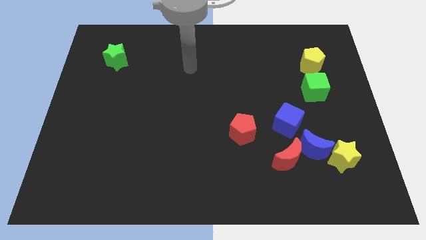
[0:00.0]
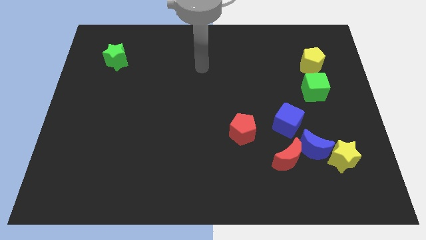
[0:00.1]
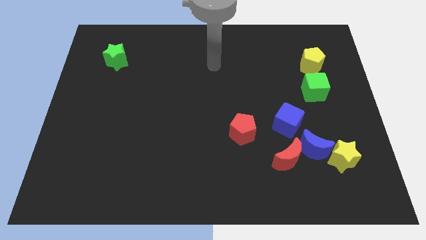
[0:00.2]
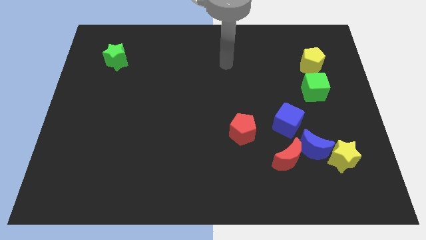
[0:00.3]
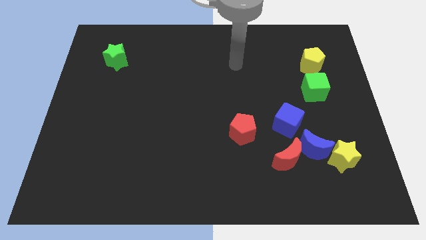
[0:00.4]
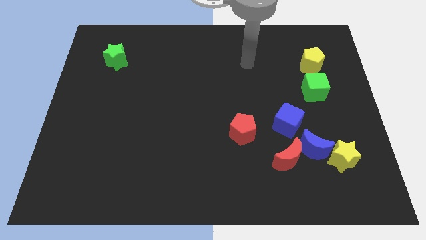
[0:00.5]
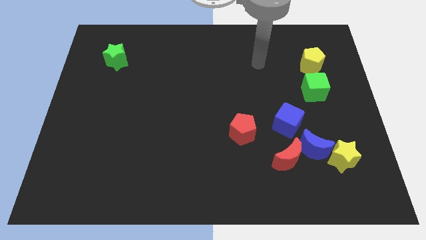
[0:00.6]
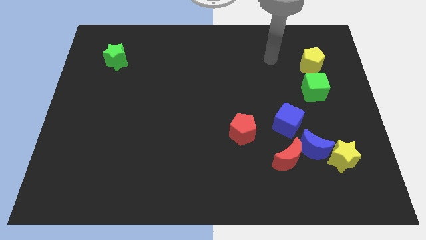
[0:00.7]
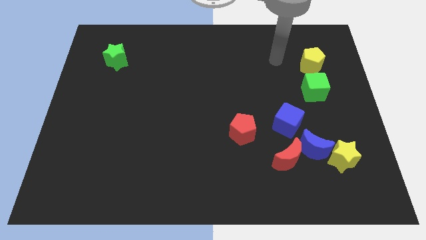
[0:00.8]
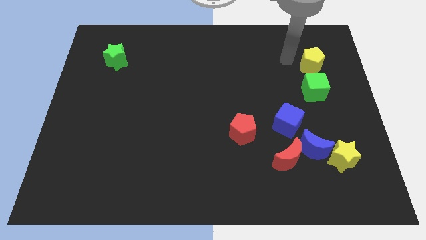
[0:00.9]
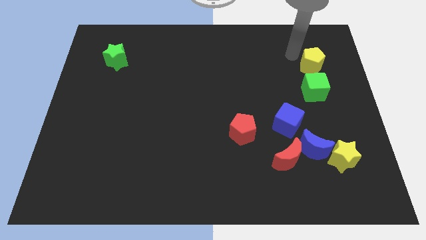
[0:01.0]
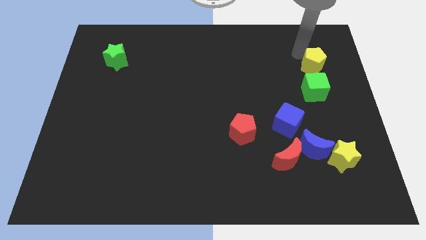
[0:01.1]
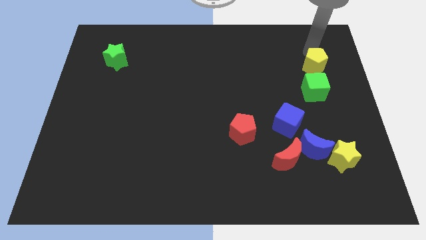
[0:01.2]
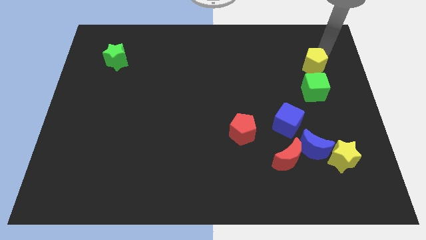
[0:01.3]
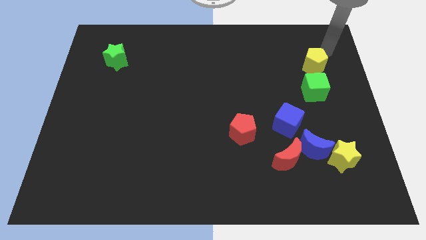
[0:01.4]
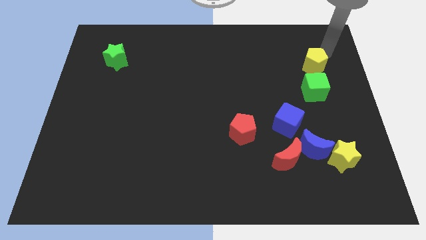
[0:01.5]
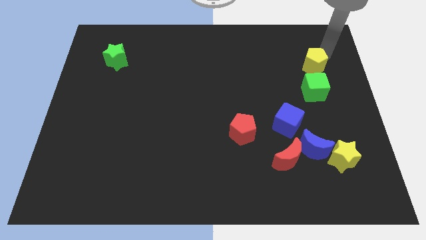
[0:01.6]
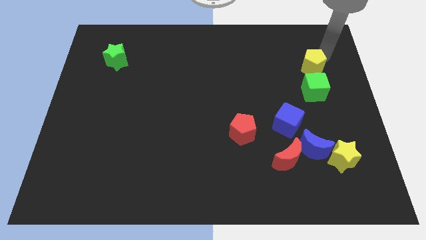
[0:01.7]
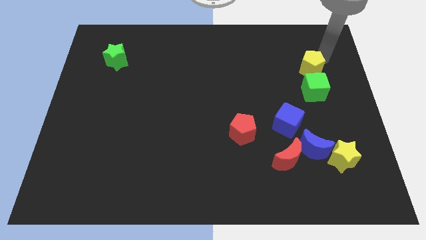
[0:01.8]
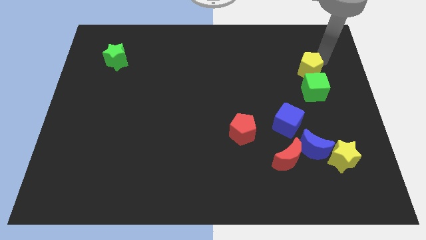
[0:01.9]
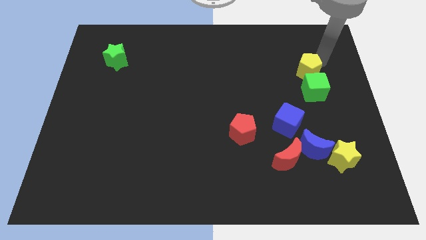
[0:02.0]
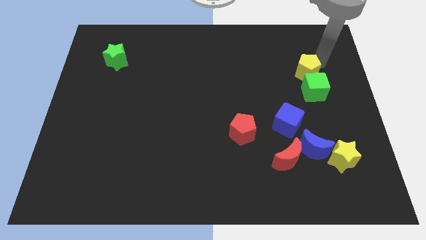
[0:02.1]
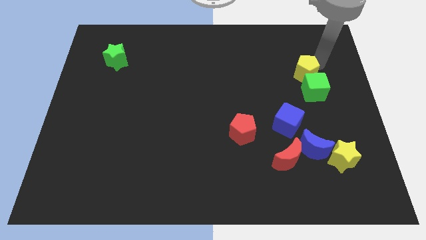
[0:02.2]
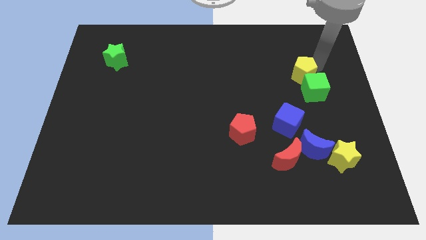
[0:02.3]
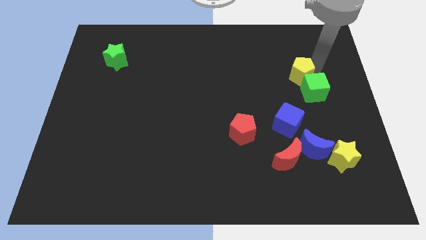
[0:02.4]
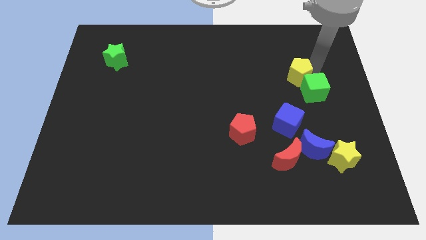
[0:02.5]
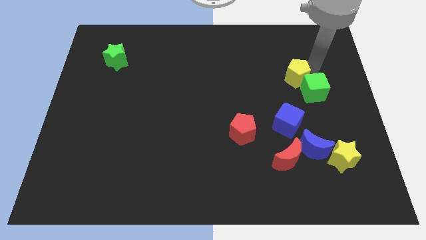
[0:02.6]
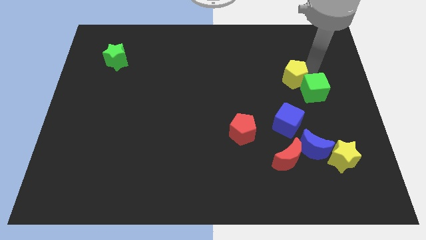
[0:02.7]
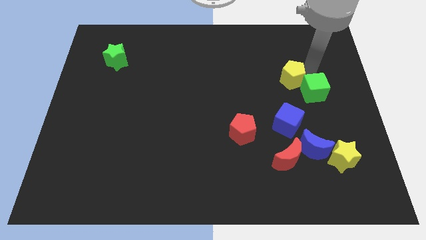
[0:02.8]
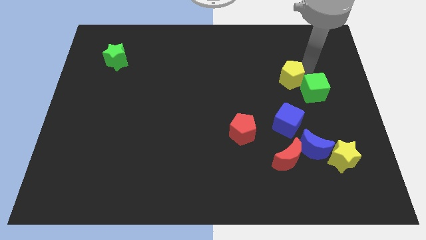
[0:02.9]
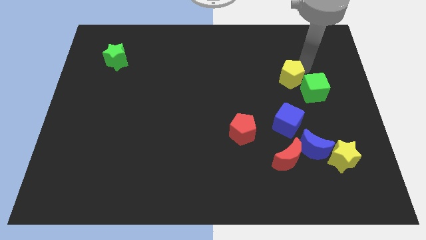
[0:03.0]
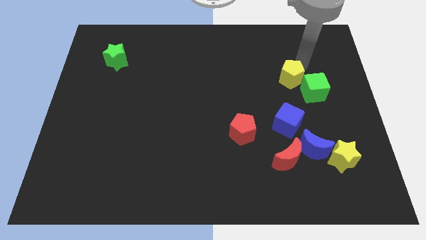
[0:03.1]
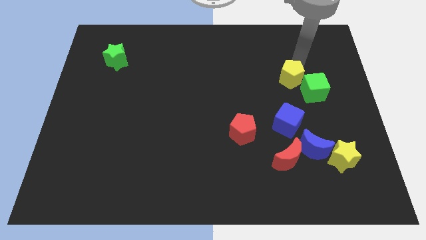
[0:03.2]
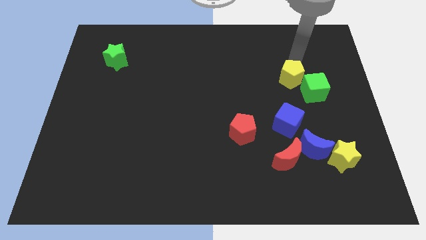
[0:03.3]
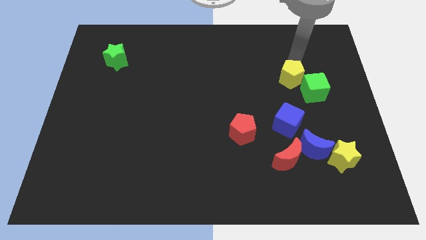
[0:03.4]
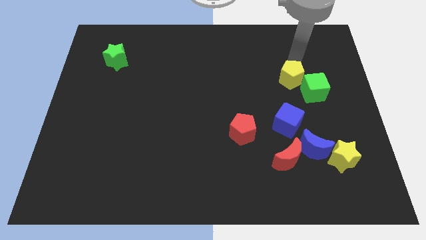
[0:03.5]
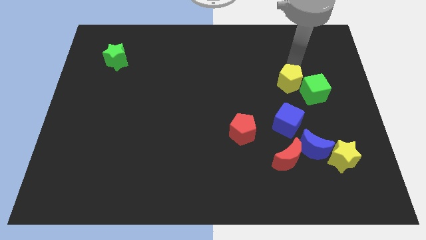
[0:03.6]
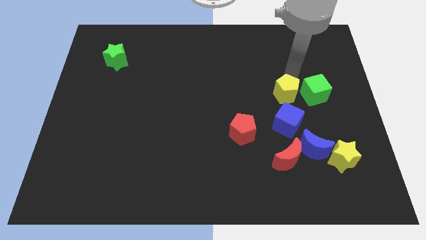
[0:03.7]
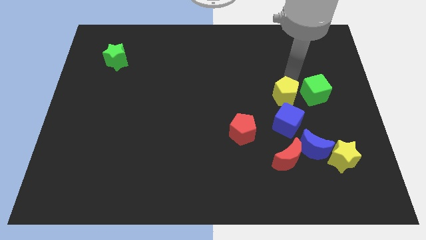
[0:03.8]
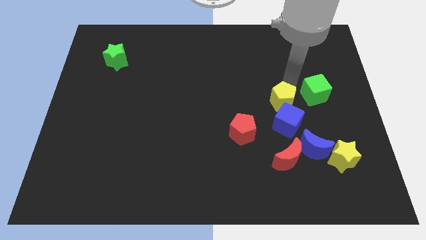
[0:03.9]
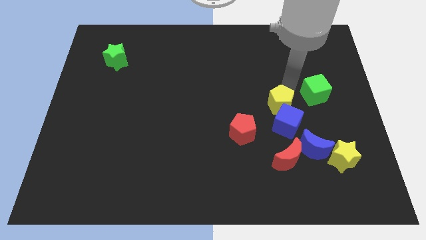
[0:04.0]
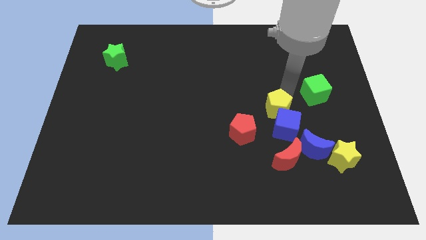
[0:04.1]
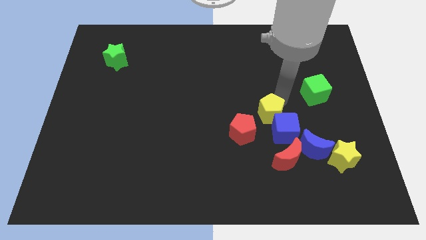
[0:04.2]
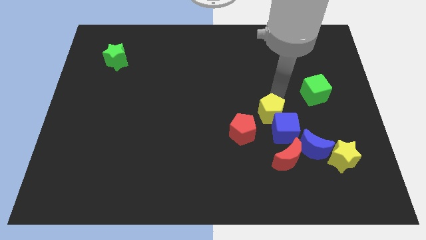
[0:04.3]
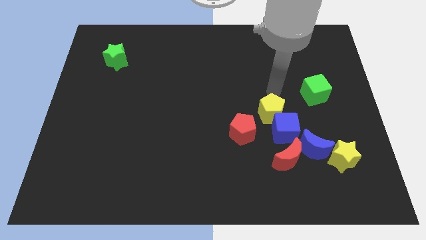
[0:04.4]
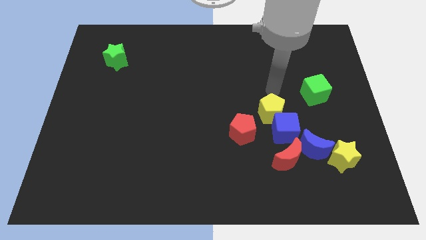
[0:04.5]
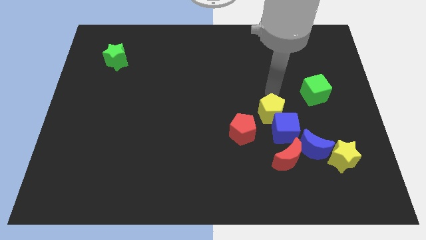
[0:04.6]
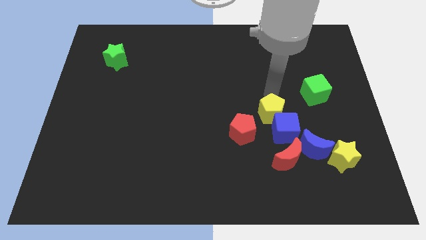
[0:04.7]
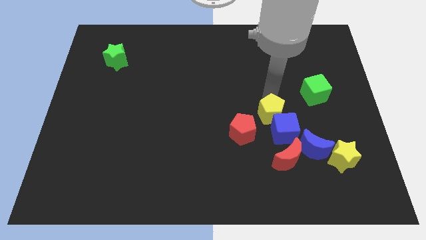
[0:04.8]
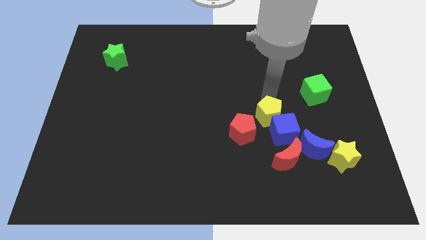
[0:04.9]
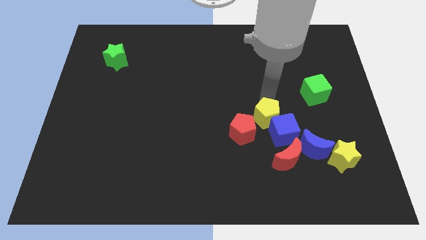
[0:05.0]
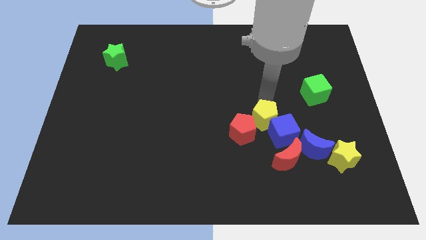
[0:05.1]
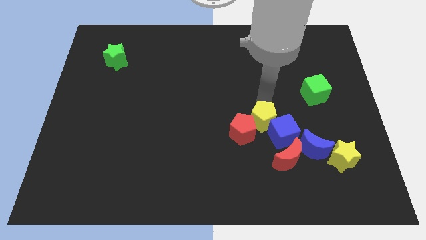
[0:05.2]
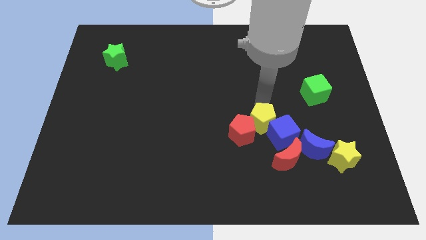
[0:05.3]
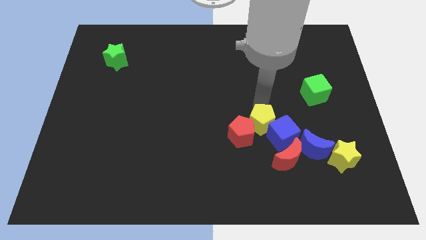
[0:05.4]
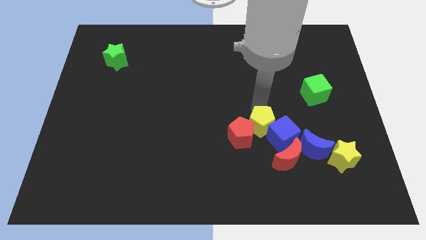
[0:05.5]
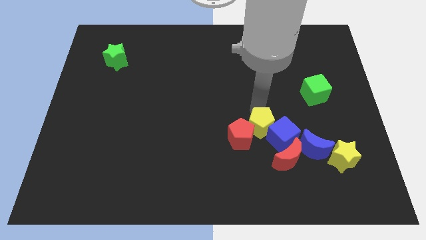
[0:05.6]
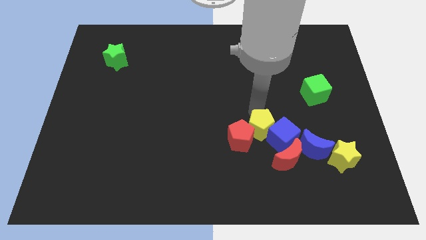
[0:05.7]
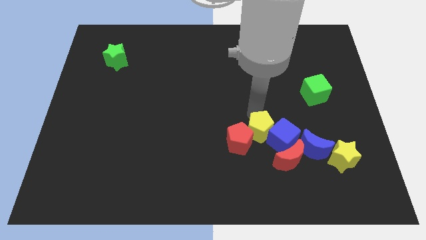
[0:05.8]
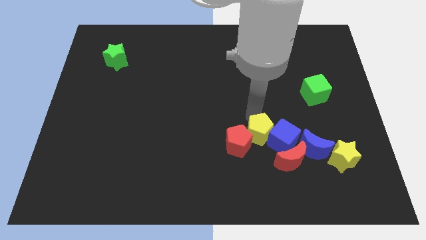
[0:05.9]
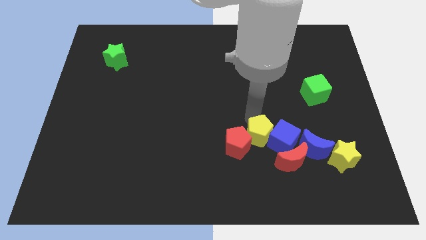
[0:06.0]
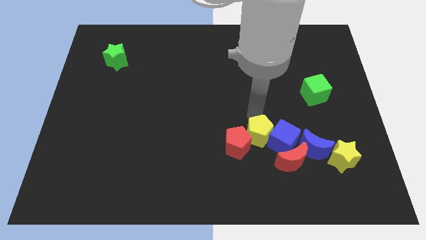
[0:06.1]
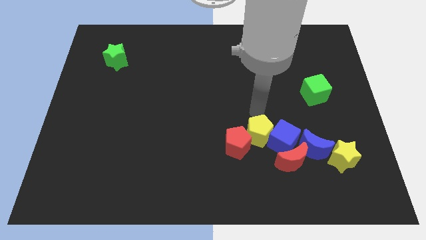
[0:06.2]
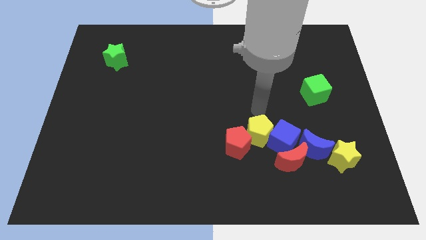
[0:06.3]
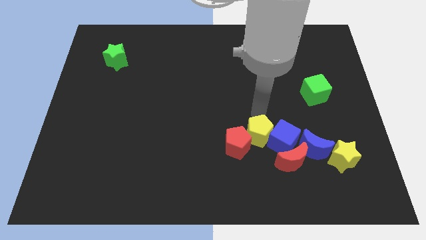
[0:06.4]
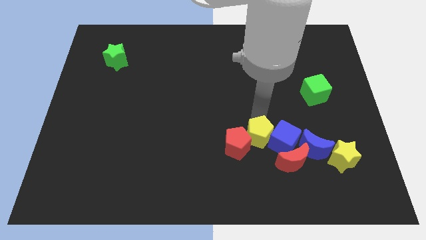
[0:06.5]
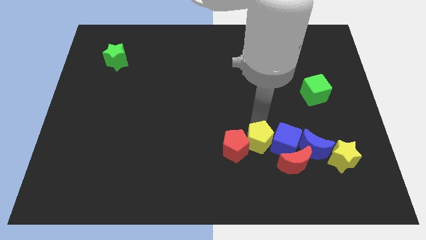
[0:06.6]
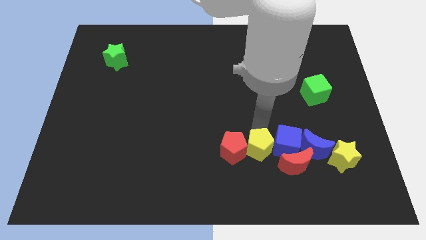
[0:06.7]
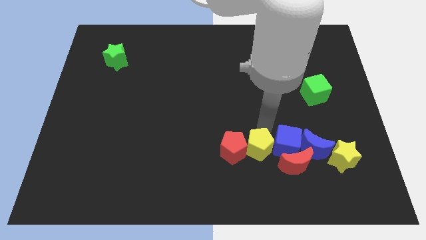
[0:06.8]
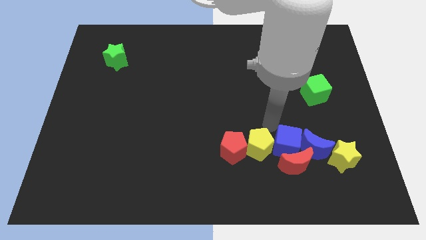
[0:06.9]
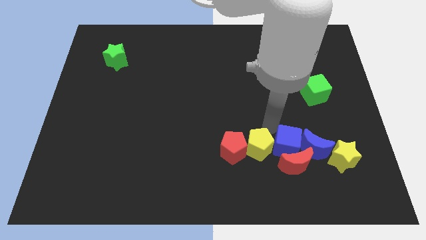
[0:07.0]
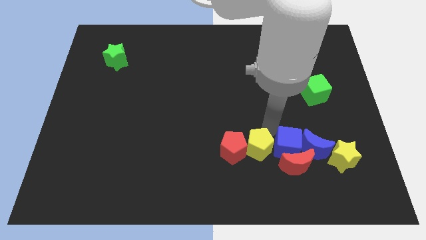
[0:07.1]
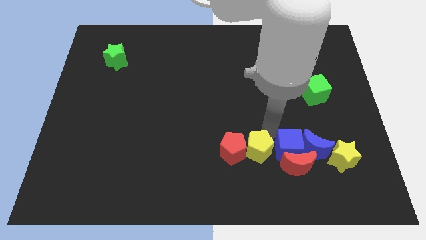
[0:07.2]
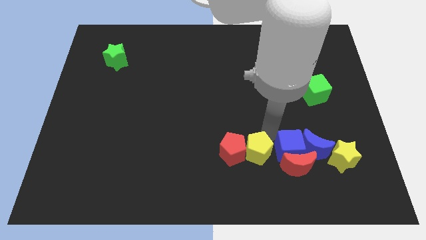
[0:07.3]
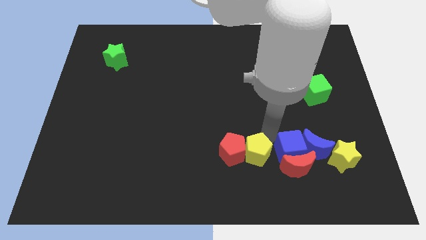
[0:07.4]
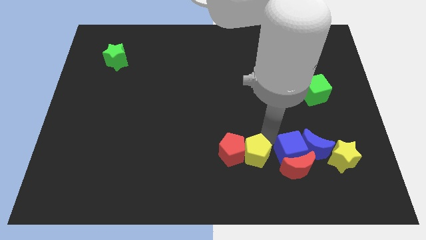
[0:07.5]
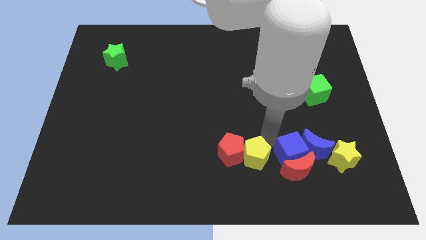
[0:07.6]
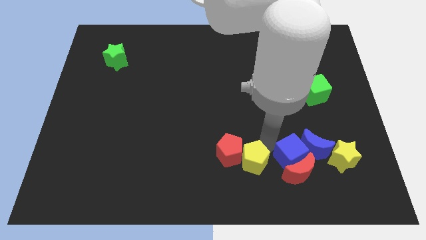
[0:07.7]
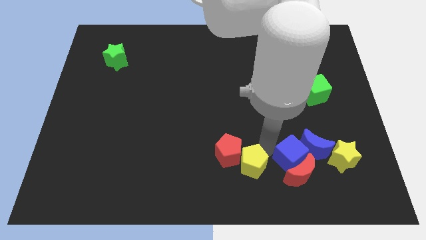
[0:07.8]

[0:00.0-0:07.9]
put the yellow pentagon to the bottom
